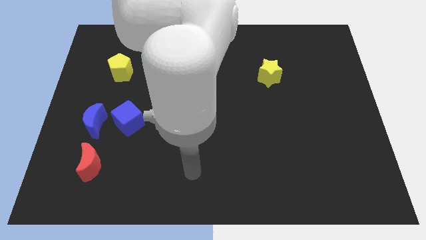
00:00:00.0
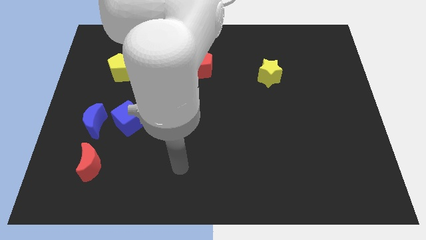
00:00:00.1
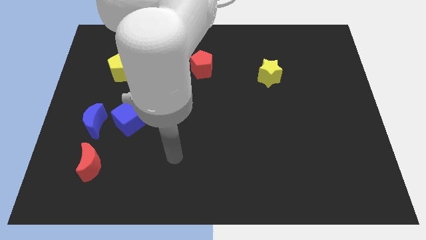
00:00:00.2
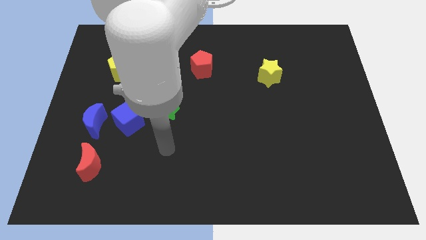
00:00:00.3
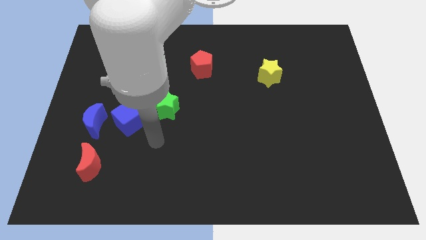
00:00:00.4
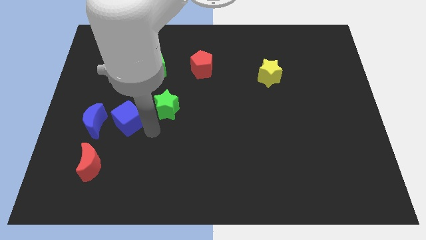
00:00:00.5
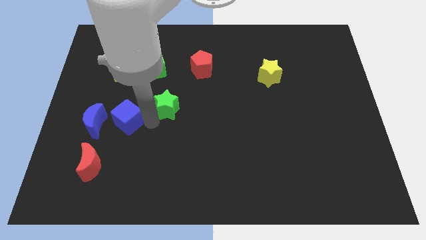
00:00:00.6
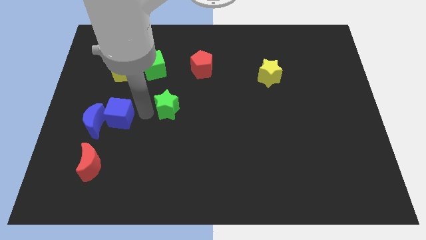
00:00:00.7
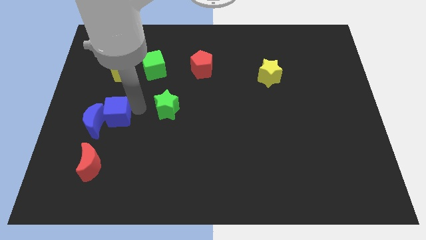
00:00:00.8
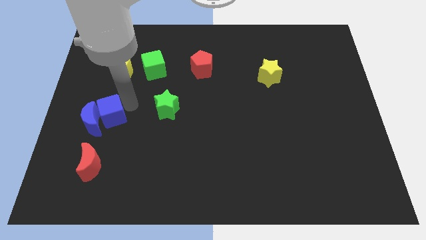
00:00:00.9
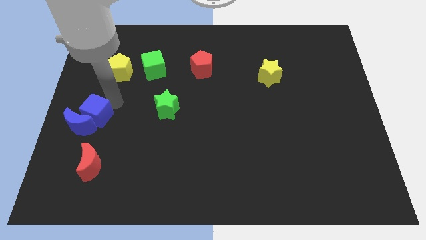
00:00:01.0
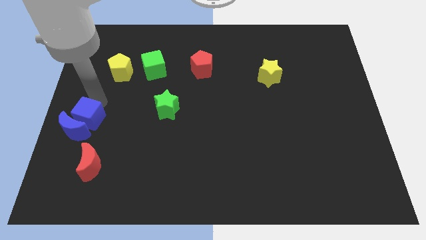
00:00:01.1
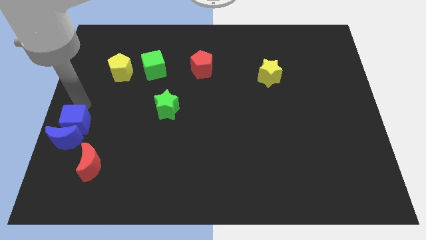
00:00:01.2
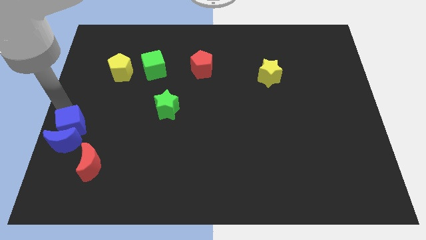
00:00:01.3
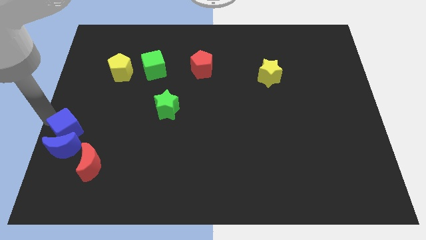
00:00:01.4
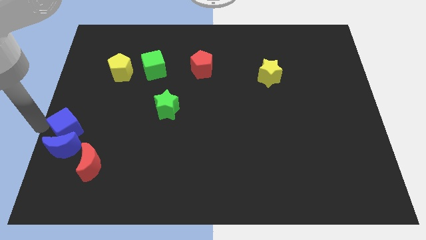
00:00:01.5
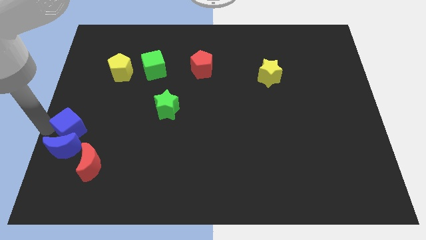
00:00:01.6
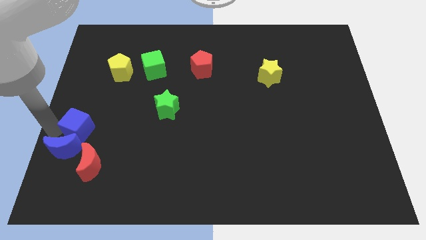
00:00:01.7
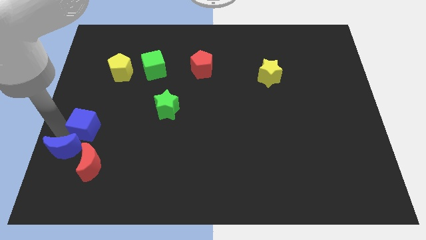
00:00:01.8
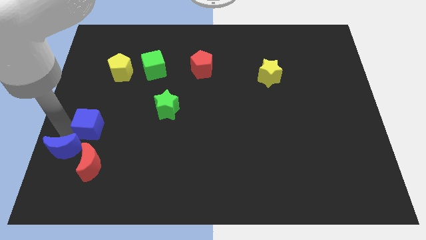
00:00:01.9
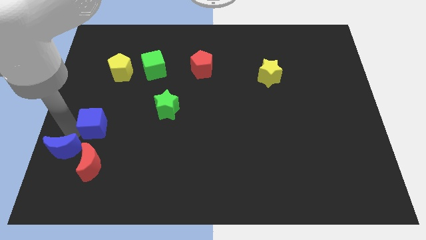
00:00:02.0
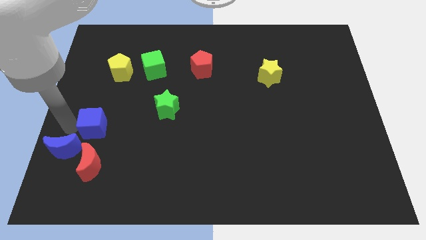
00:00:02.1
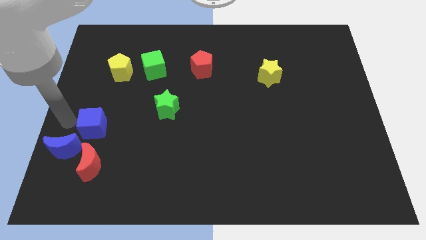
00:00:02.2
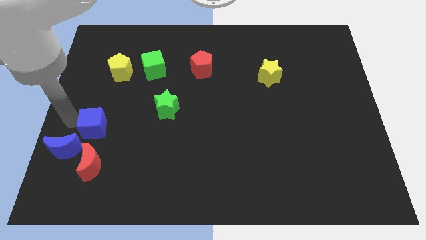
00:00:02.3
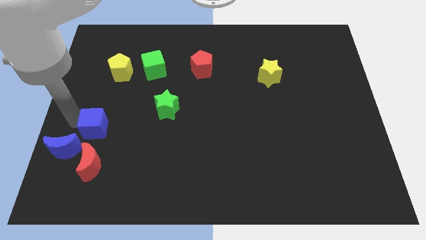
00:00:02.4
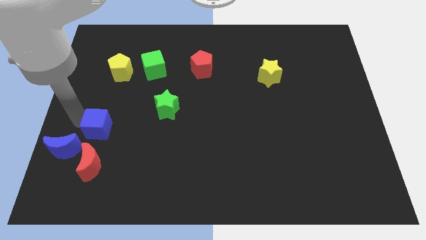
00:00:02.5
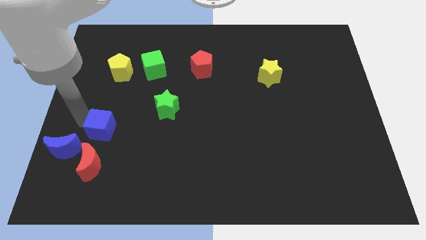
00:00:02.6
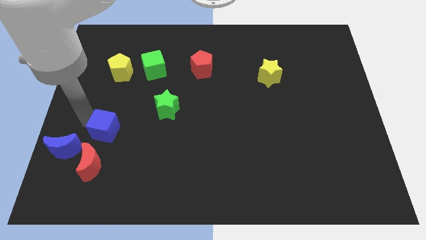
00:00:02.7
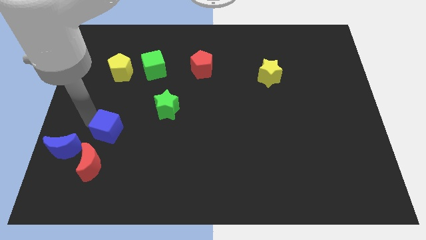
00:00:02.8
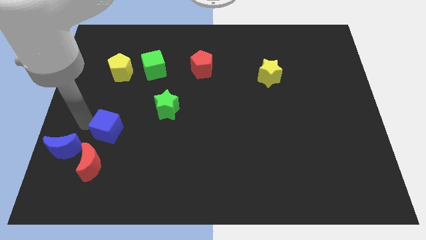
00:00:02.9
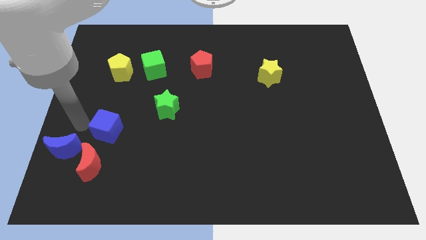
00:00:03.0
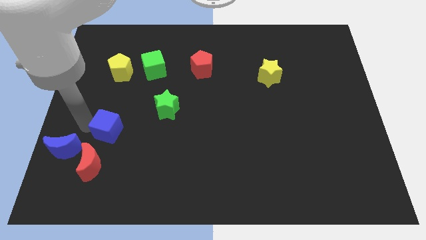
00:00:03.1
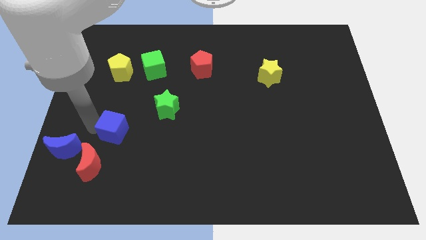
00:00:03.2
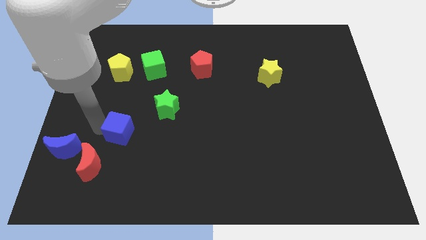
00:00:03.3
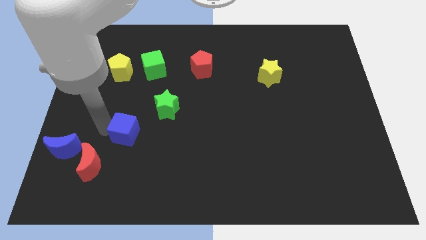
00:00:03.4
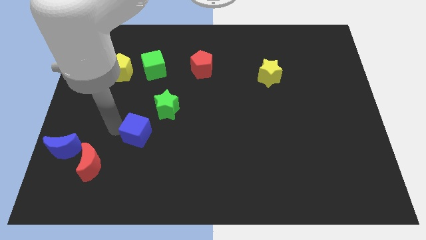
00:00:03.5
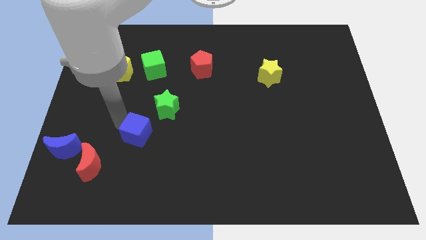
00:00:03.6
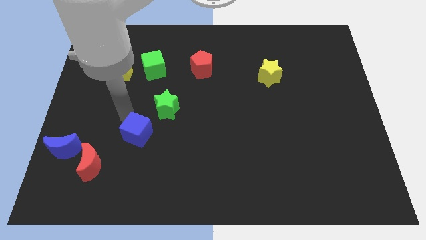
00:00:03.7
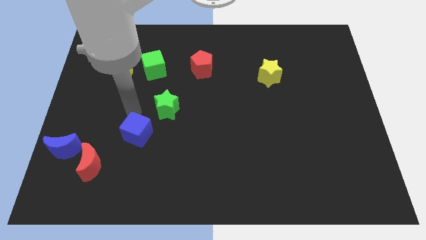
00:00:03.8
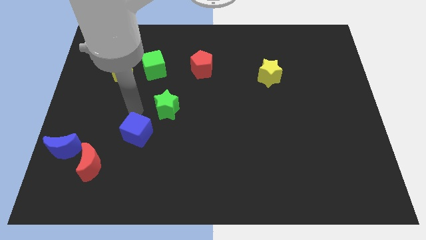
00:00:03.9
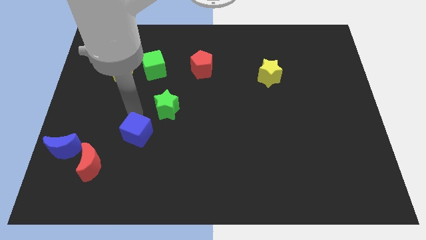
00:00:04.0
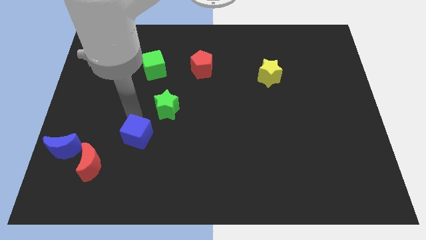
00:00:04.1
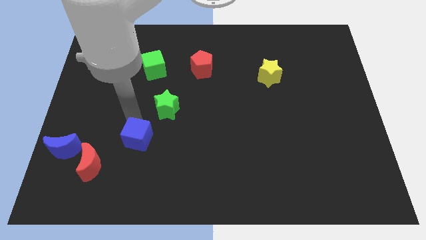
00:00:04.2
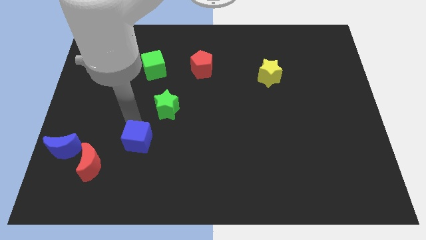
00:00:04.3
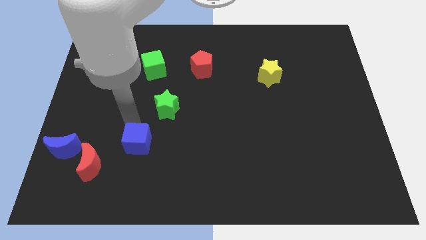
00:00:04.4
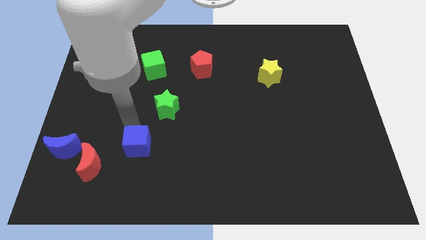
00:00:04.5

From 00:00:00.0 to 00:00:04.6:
push the blue cube just right of the red moon

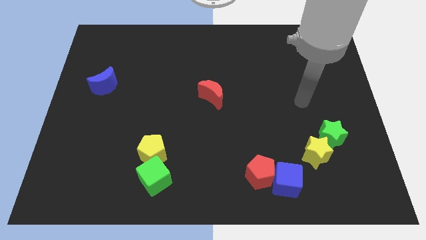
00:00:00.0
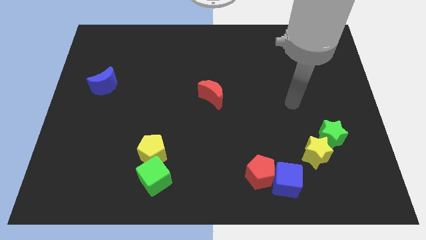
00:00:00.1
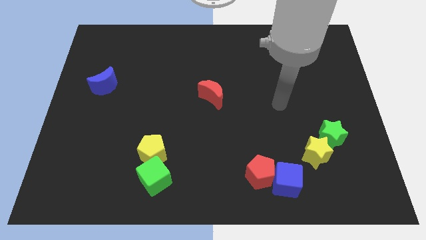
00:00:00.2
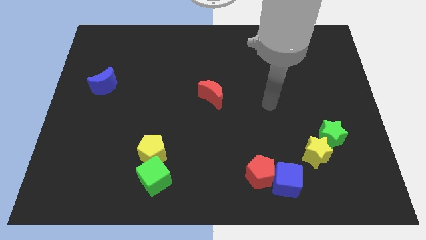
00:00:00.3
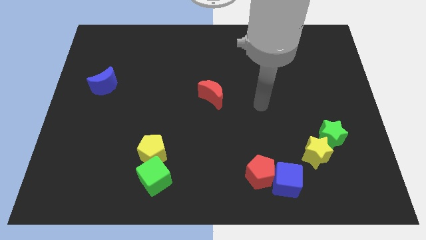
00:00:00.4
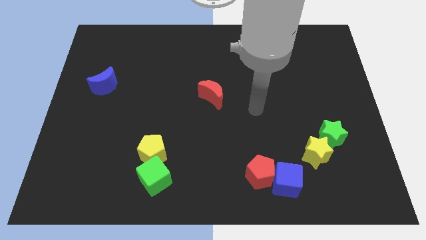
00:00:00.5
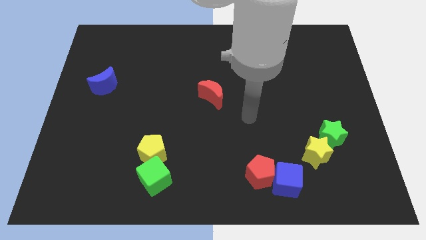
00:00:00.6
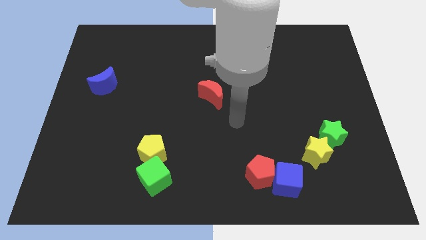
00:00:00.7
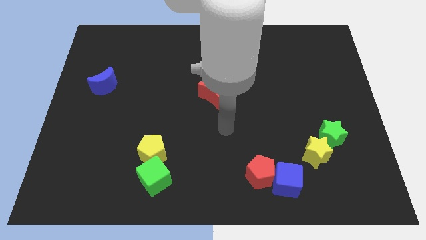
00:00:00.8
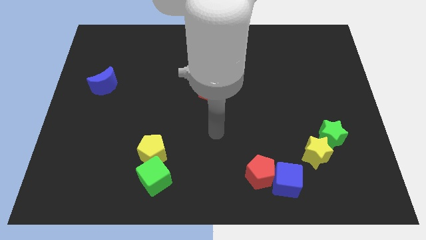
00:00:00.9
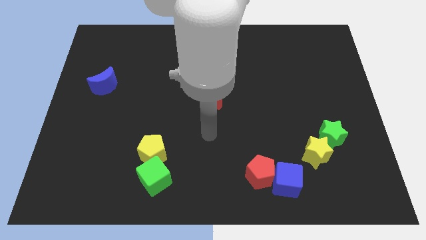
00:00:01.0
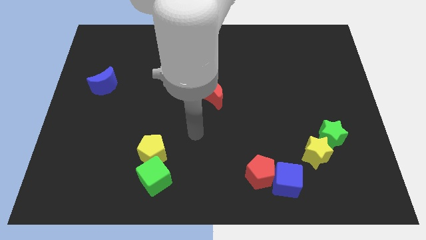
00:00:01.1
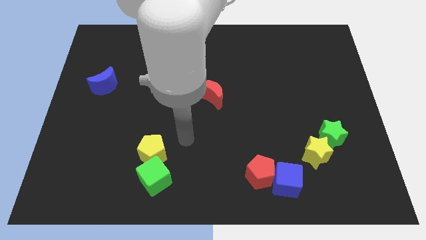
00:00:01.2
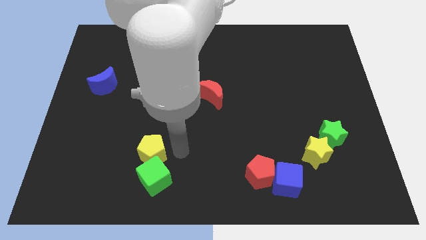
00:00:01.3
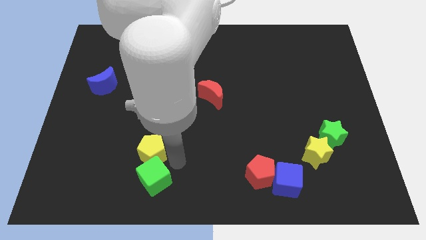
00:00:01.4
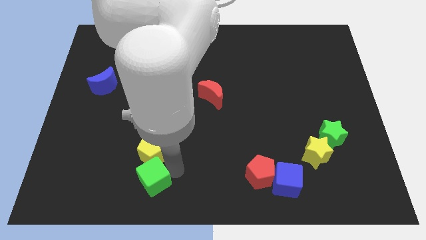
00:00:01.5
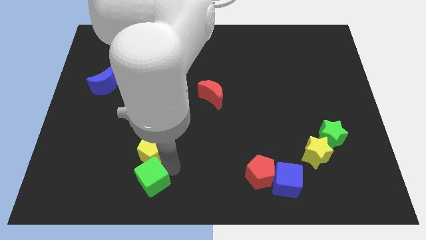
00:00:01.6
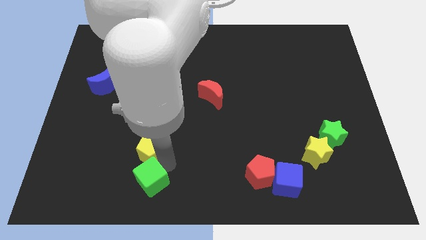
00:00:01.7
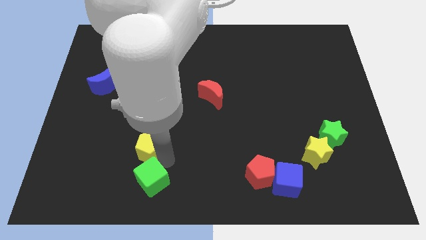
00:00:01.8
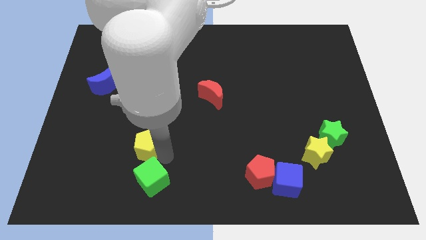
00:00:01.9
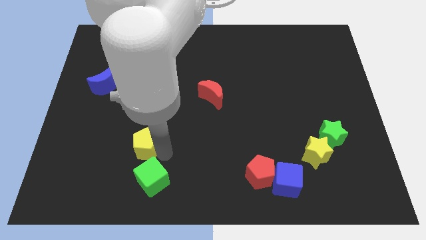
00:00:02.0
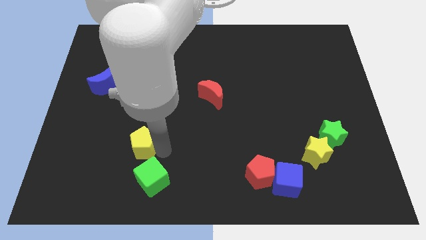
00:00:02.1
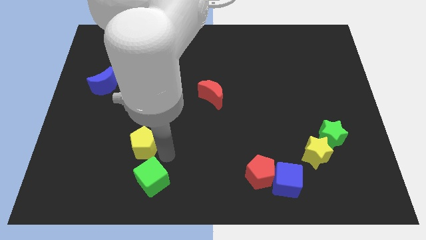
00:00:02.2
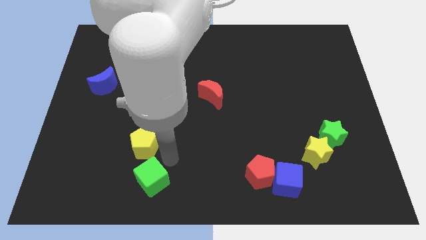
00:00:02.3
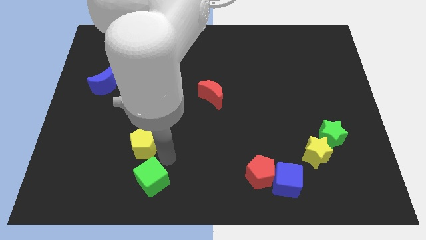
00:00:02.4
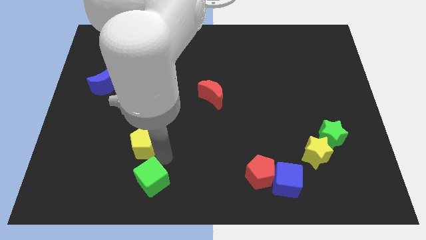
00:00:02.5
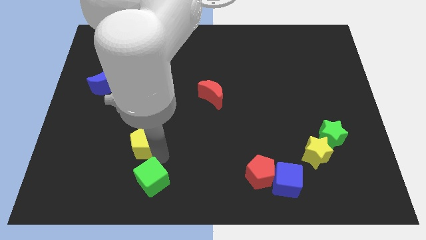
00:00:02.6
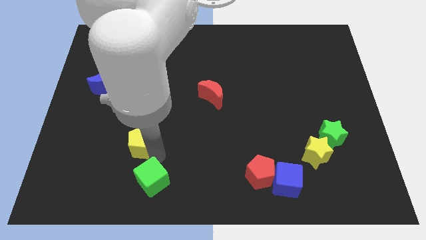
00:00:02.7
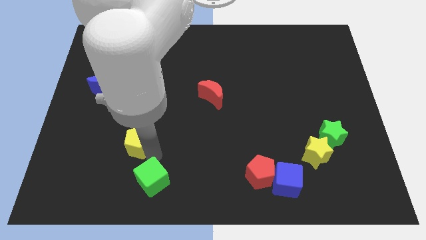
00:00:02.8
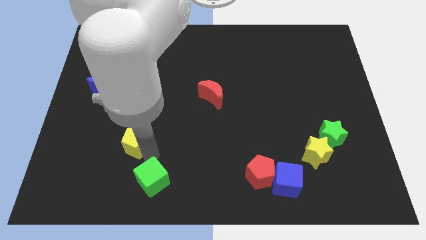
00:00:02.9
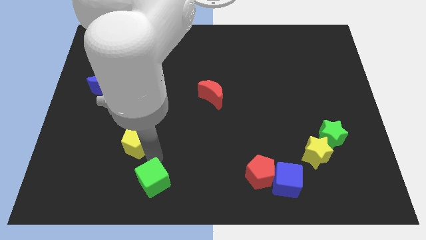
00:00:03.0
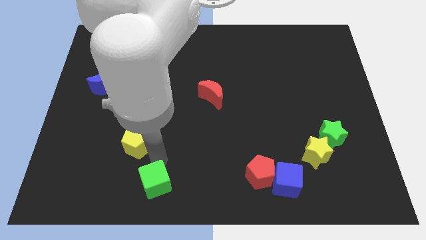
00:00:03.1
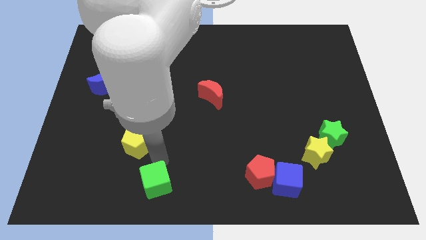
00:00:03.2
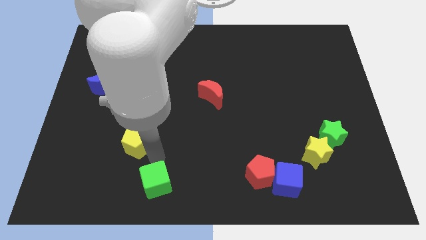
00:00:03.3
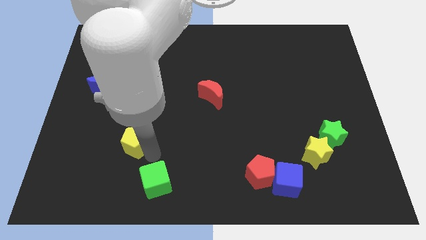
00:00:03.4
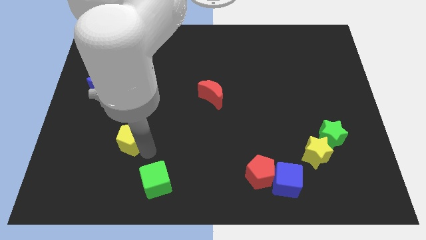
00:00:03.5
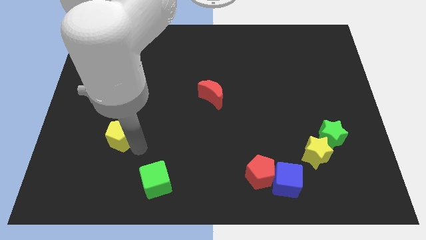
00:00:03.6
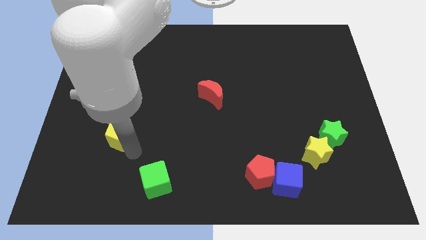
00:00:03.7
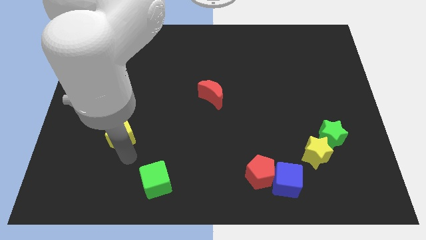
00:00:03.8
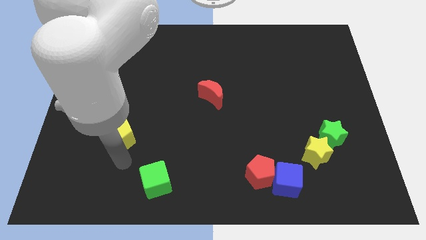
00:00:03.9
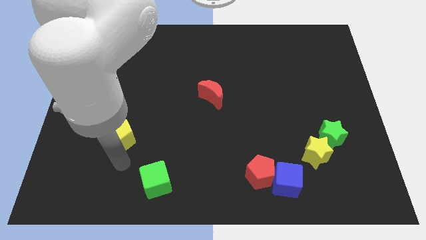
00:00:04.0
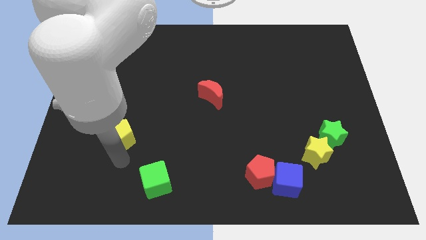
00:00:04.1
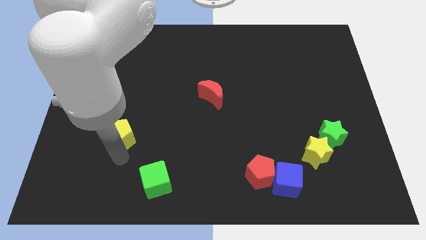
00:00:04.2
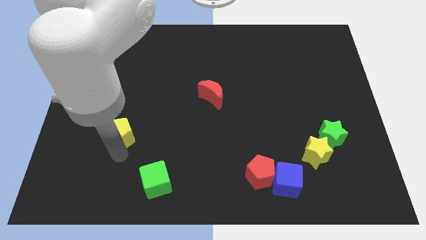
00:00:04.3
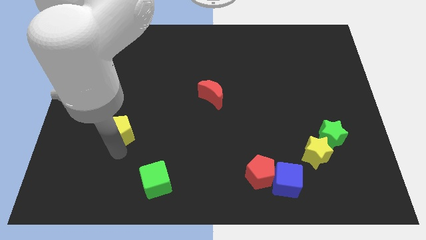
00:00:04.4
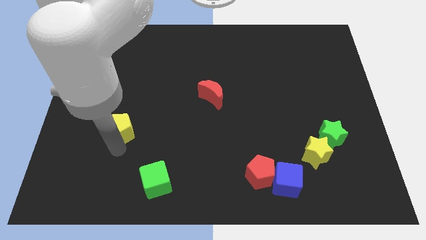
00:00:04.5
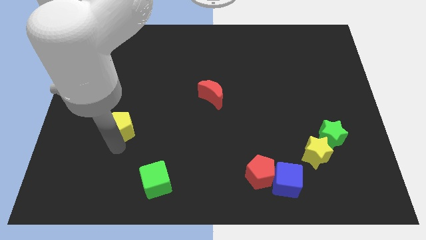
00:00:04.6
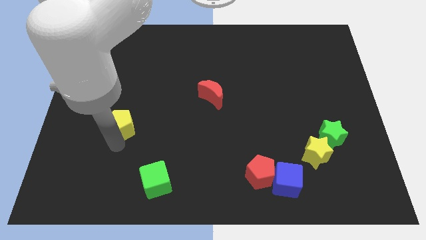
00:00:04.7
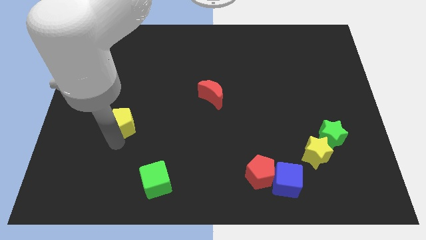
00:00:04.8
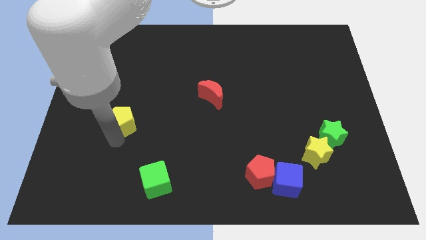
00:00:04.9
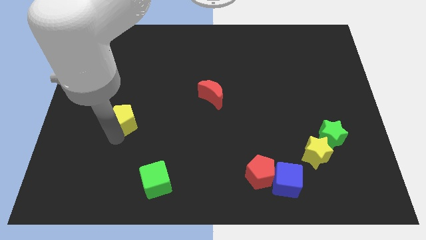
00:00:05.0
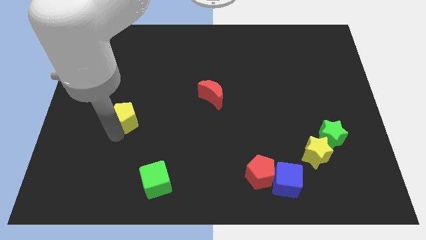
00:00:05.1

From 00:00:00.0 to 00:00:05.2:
push the yellow pentagon diagonally down and to the right of the blue moon
